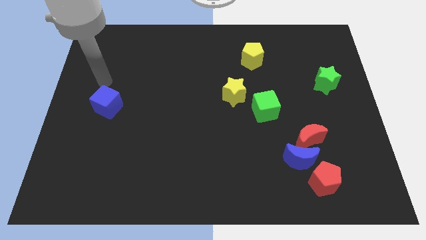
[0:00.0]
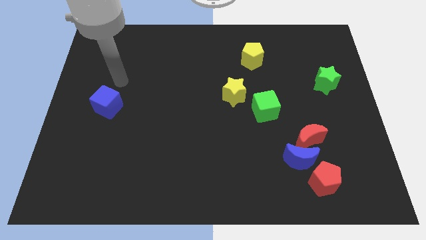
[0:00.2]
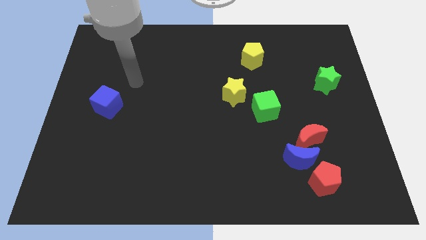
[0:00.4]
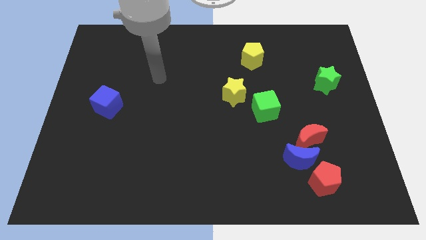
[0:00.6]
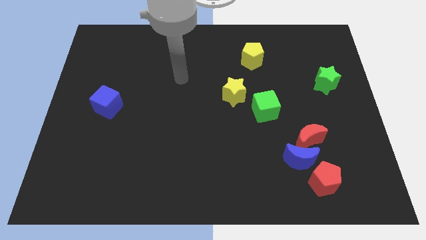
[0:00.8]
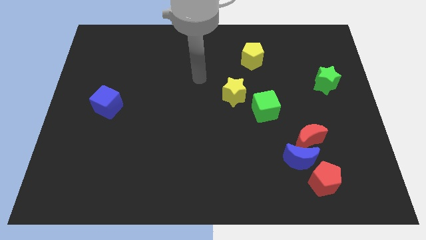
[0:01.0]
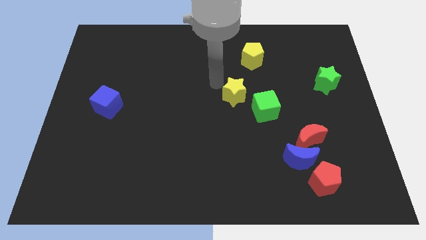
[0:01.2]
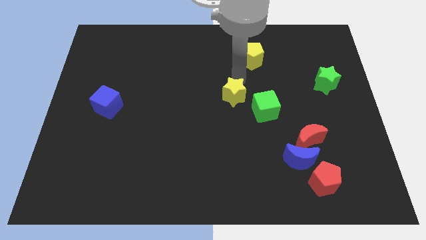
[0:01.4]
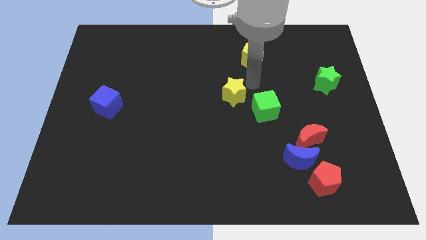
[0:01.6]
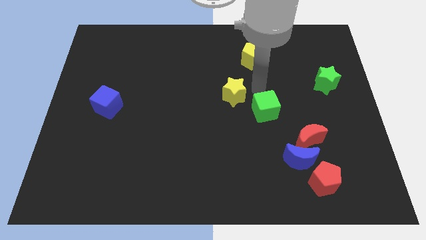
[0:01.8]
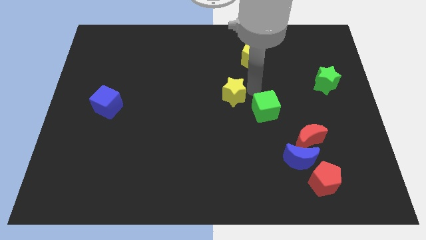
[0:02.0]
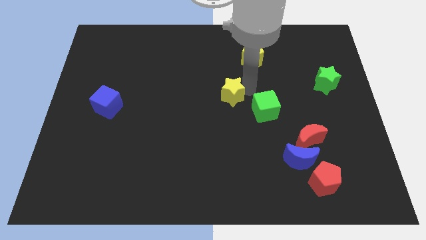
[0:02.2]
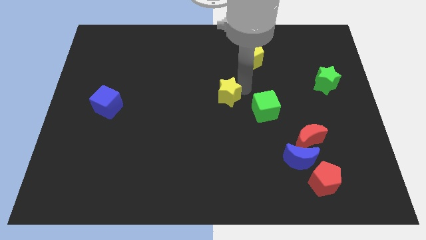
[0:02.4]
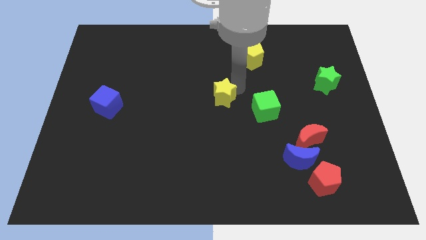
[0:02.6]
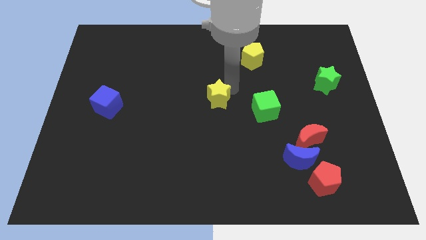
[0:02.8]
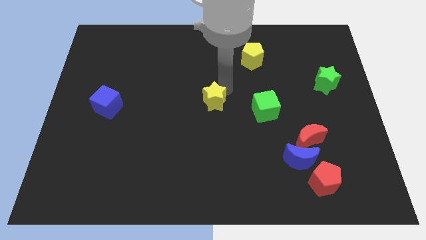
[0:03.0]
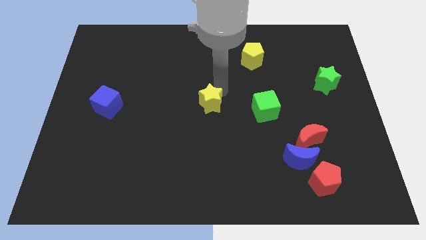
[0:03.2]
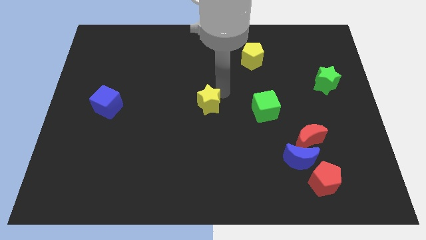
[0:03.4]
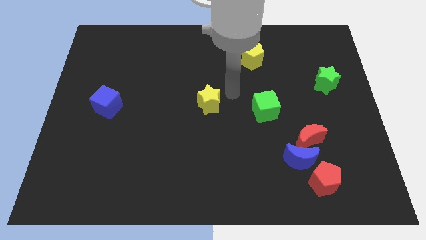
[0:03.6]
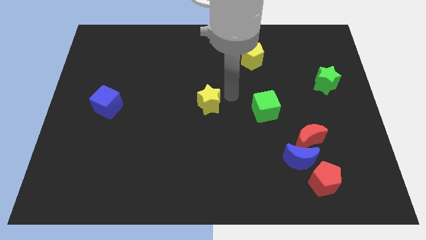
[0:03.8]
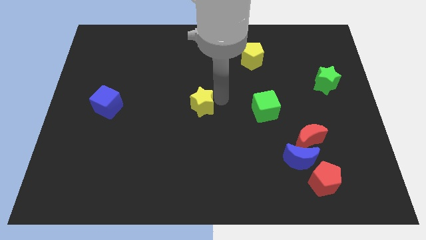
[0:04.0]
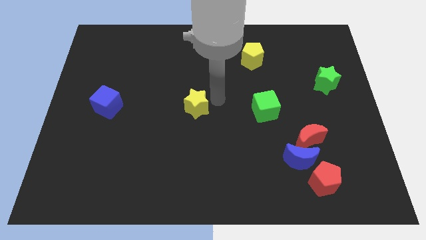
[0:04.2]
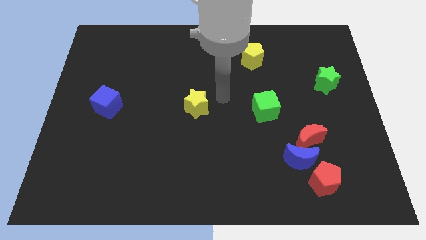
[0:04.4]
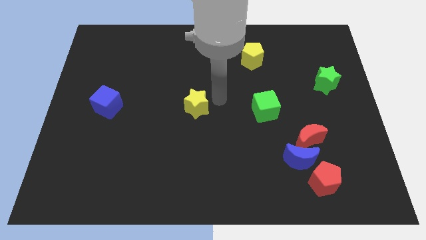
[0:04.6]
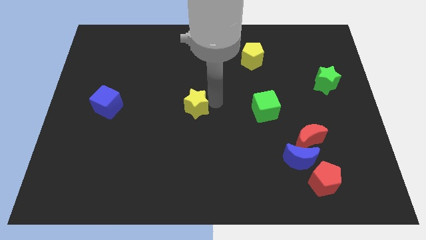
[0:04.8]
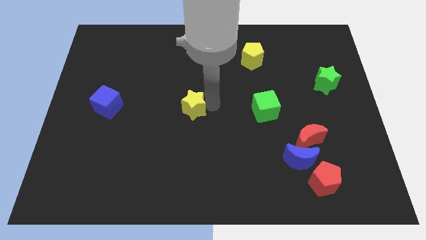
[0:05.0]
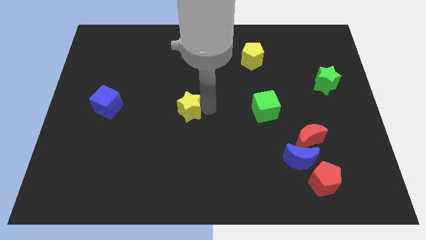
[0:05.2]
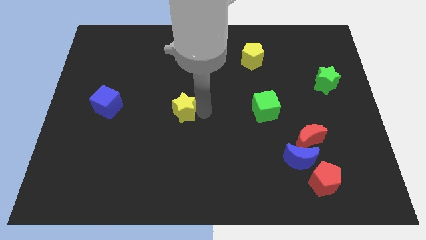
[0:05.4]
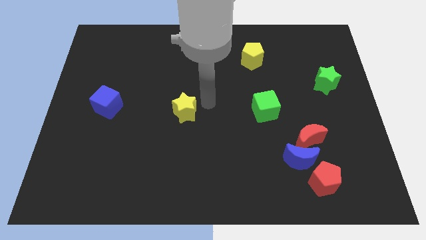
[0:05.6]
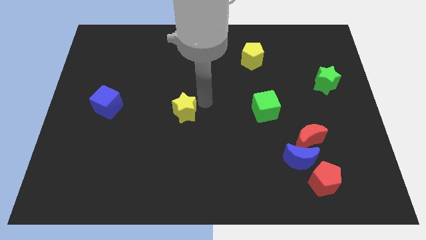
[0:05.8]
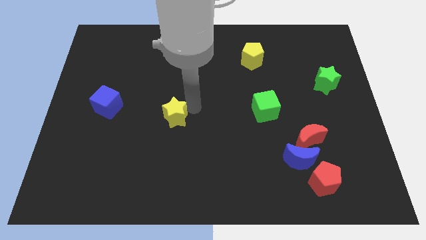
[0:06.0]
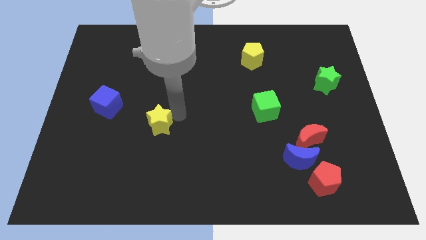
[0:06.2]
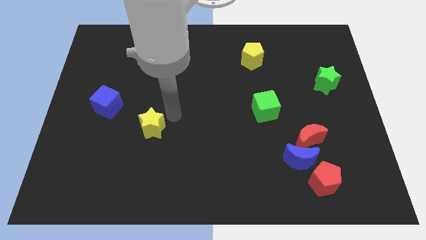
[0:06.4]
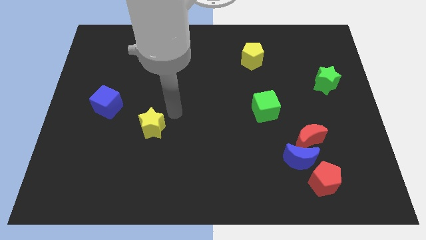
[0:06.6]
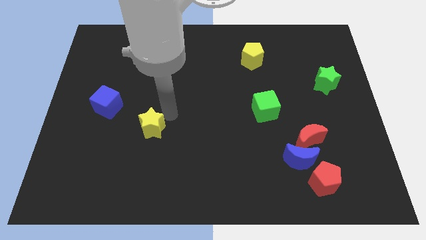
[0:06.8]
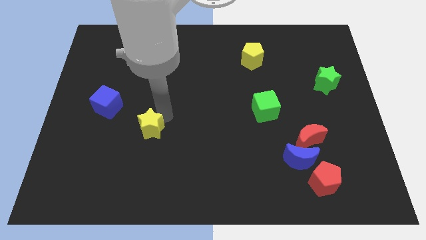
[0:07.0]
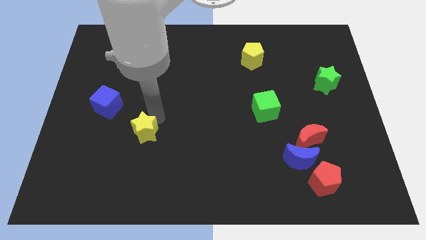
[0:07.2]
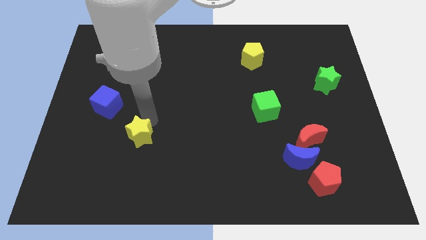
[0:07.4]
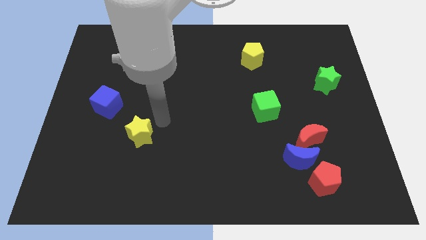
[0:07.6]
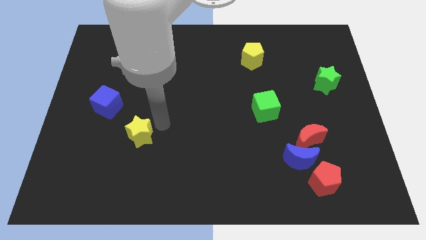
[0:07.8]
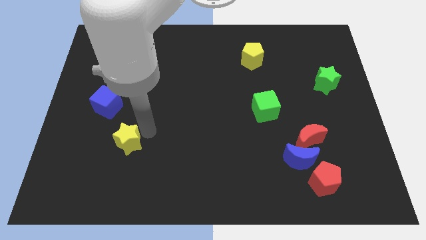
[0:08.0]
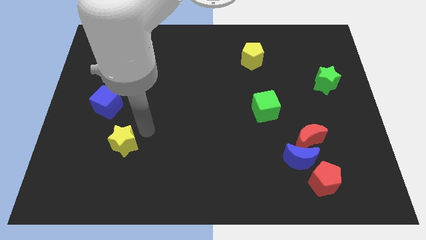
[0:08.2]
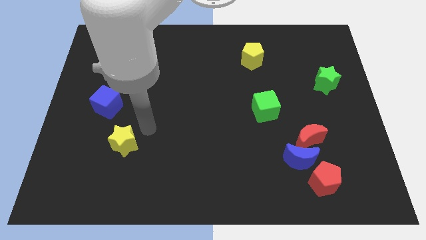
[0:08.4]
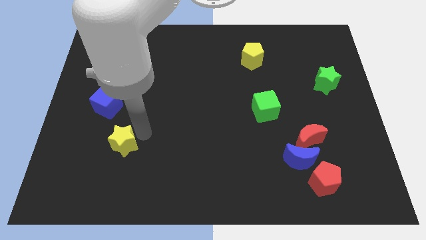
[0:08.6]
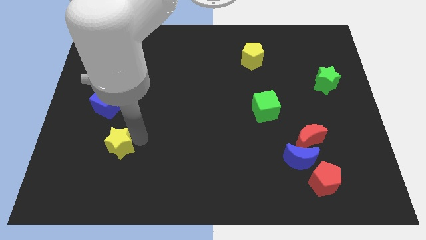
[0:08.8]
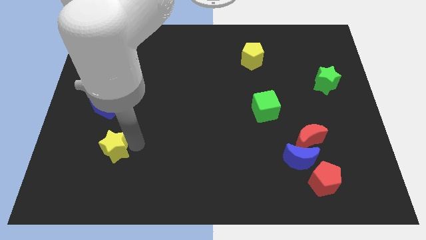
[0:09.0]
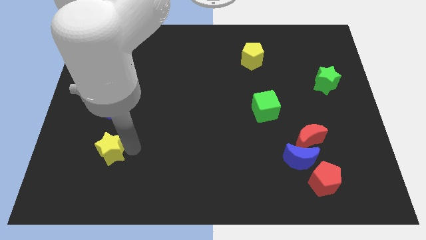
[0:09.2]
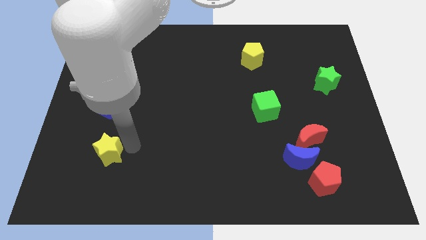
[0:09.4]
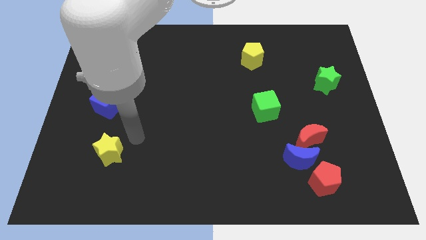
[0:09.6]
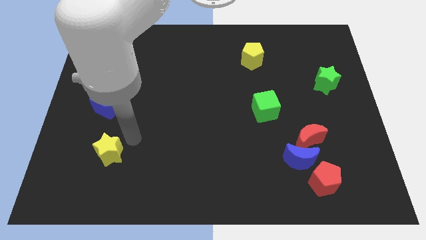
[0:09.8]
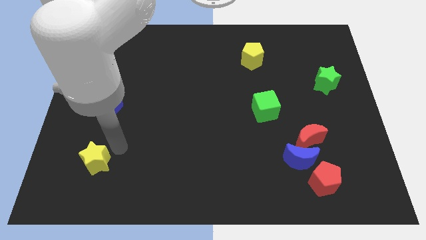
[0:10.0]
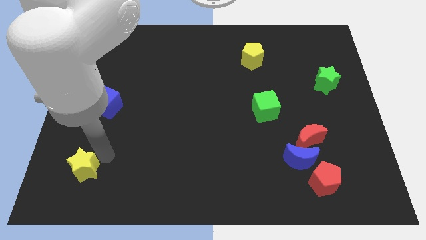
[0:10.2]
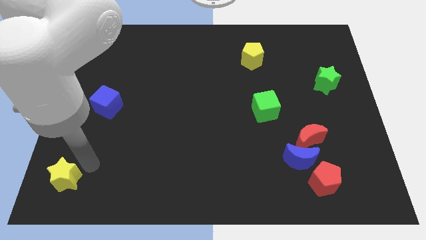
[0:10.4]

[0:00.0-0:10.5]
put the yellow star to the bottom left of the board

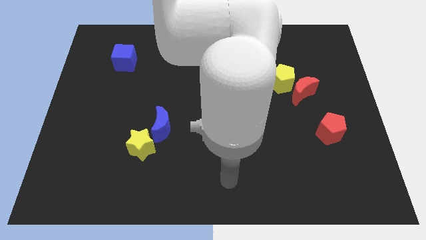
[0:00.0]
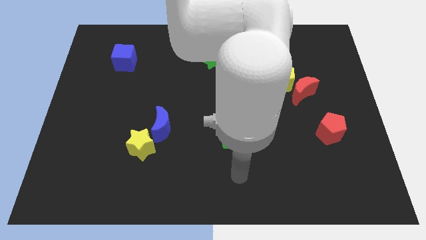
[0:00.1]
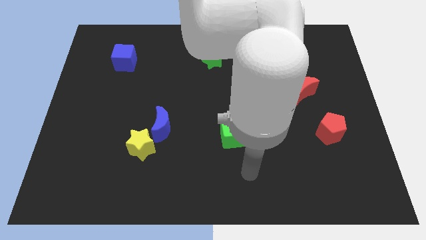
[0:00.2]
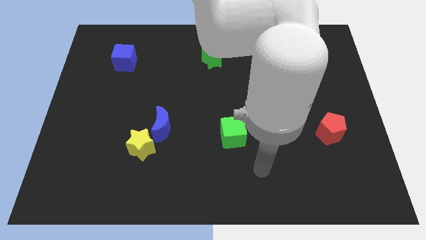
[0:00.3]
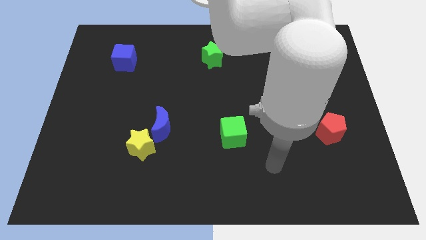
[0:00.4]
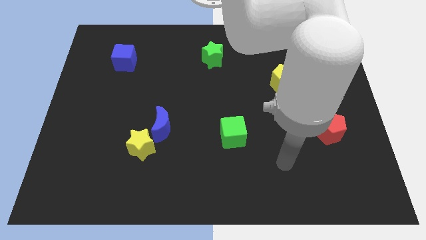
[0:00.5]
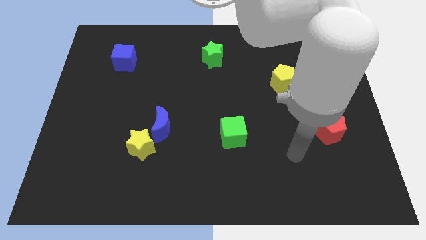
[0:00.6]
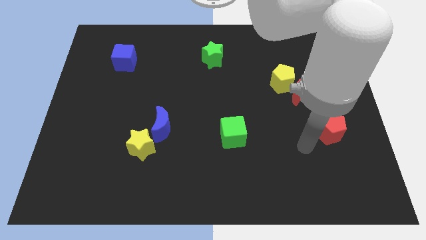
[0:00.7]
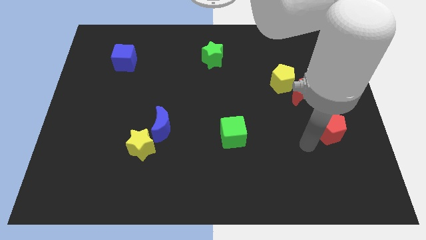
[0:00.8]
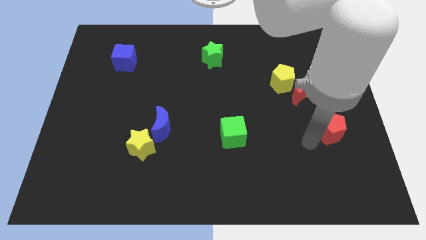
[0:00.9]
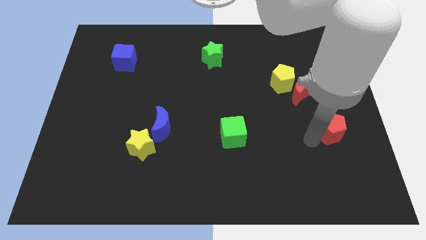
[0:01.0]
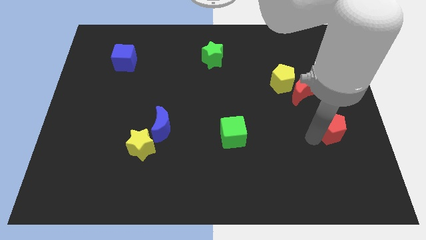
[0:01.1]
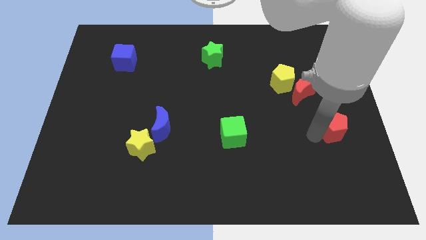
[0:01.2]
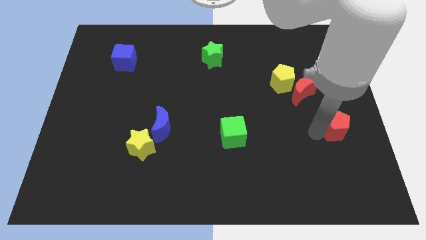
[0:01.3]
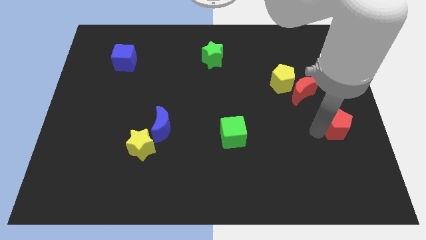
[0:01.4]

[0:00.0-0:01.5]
put the red pentagon to the right side
